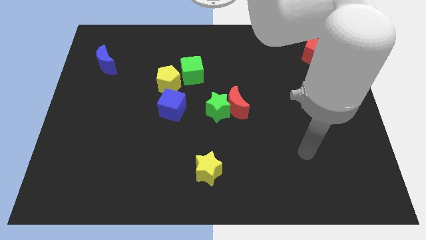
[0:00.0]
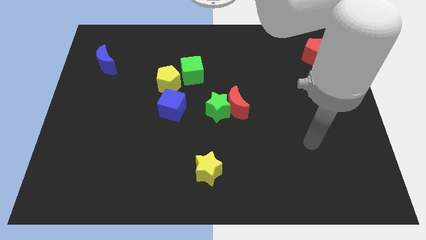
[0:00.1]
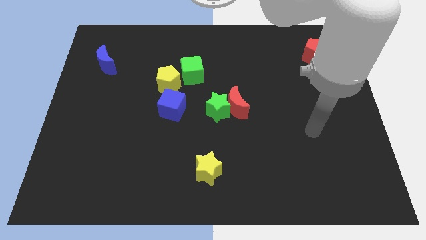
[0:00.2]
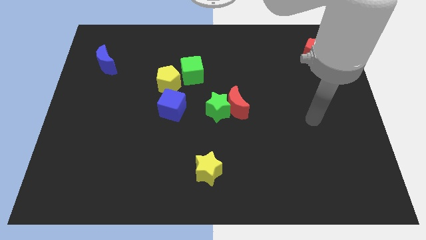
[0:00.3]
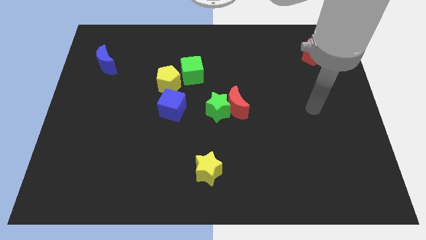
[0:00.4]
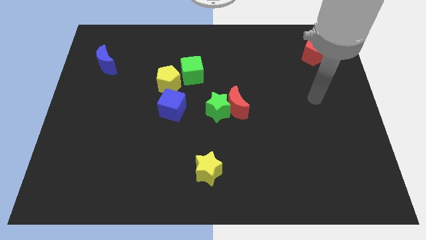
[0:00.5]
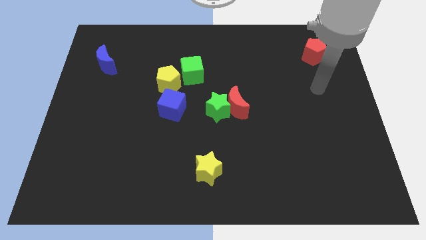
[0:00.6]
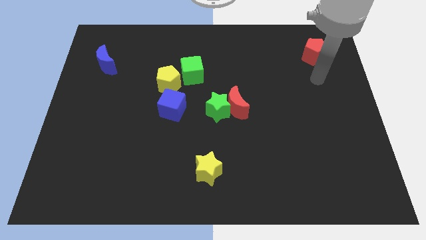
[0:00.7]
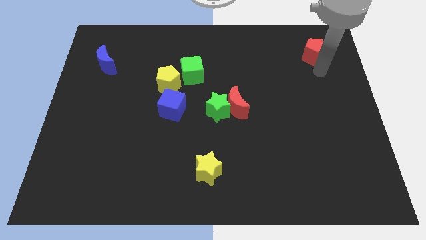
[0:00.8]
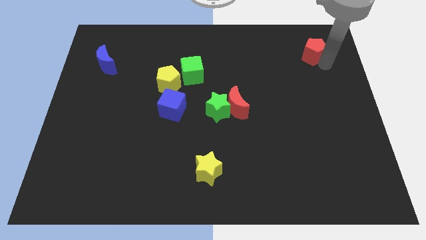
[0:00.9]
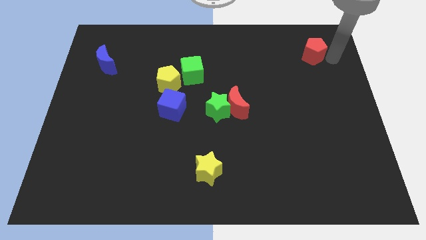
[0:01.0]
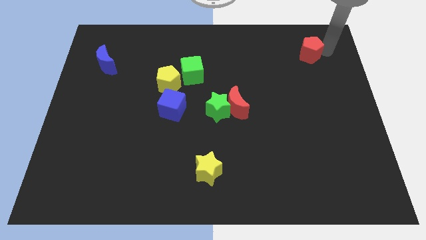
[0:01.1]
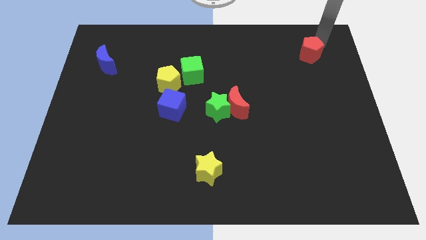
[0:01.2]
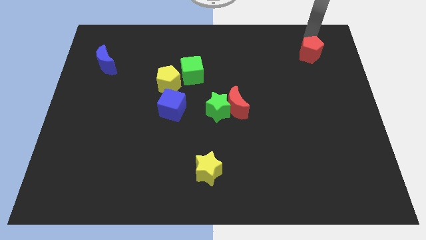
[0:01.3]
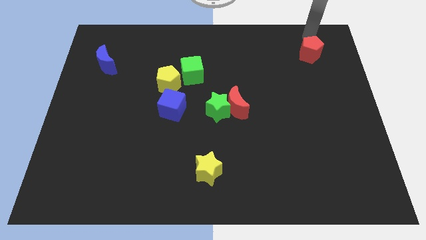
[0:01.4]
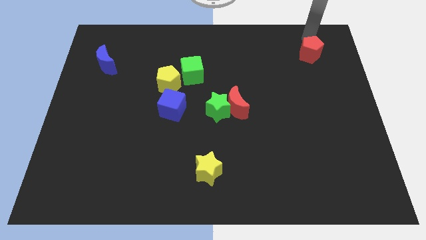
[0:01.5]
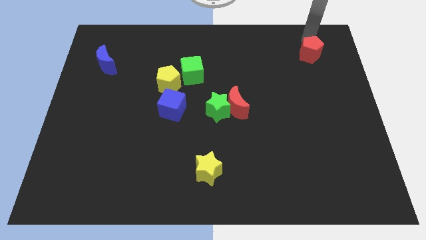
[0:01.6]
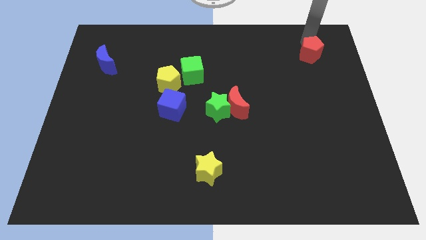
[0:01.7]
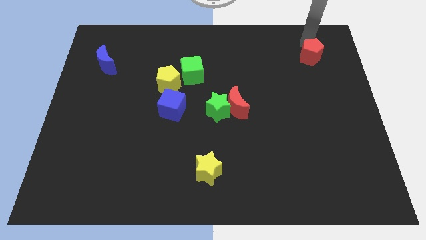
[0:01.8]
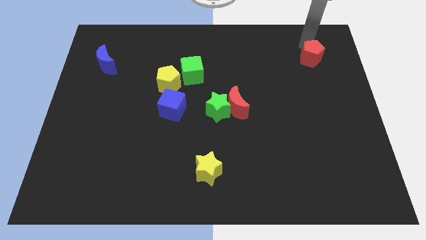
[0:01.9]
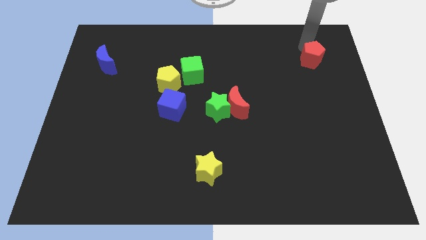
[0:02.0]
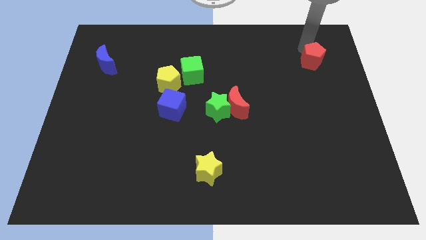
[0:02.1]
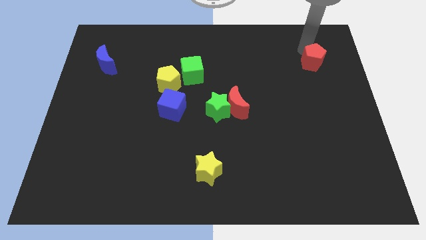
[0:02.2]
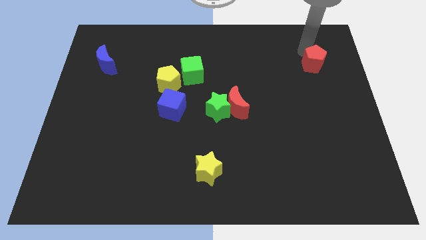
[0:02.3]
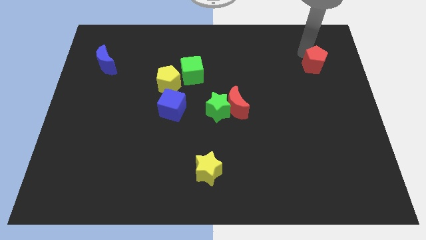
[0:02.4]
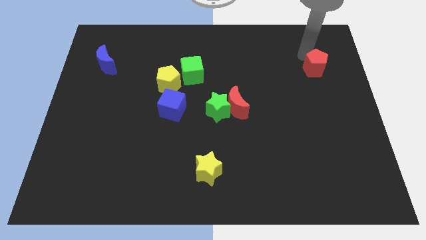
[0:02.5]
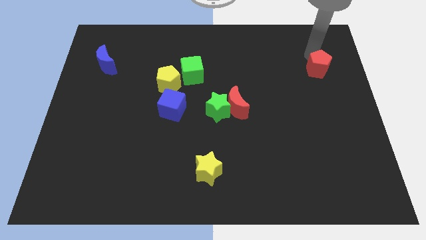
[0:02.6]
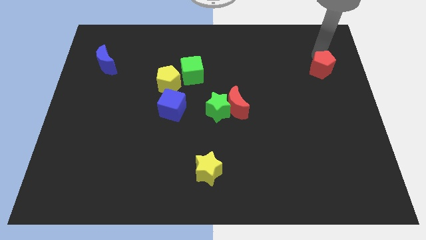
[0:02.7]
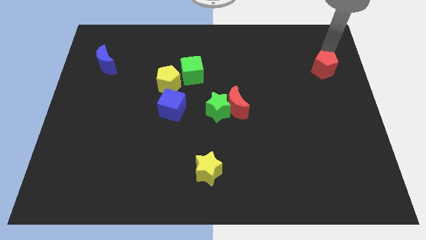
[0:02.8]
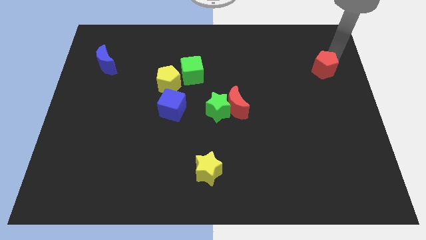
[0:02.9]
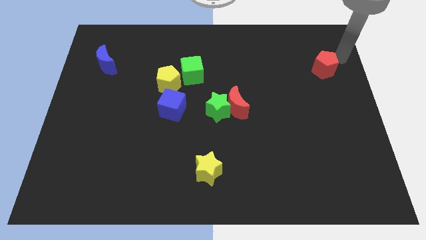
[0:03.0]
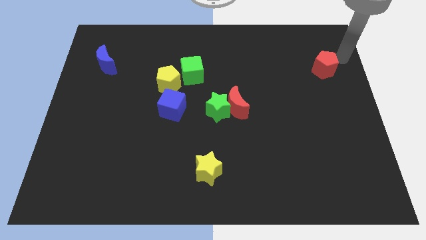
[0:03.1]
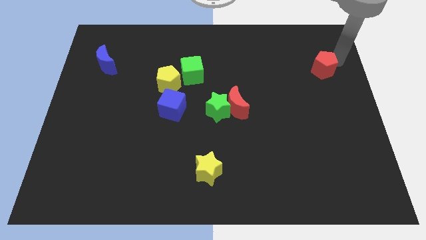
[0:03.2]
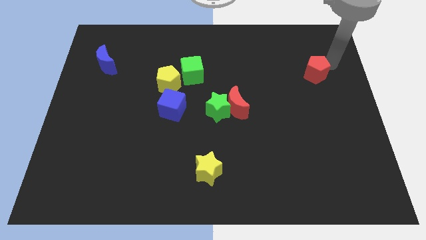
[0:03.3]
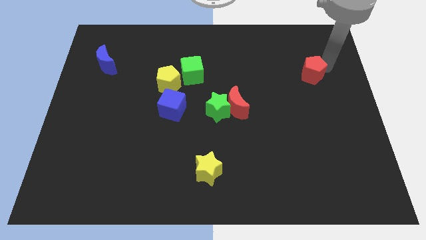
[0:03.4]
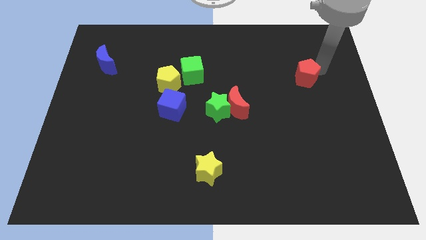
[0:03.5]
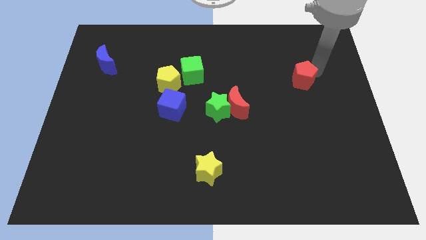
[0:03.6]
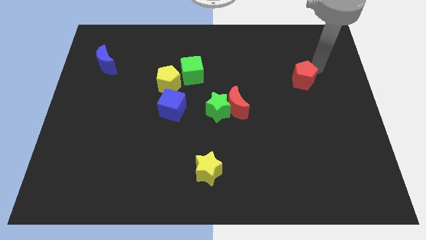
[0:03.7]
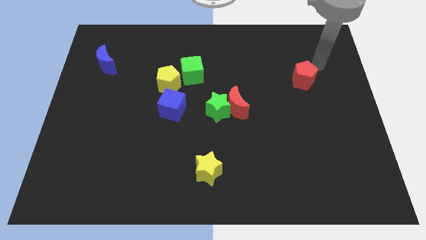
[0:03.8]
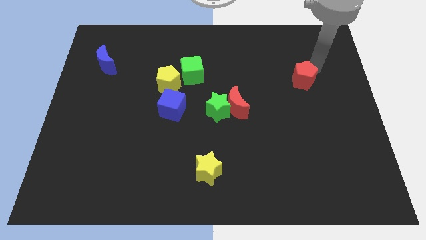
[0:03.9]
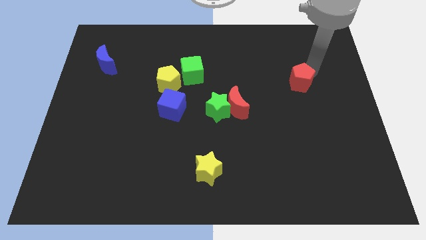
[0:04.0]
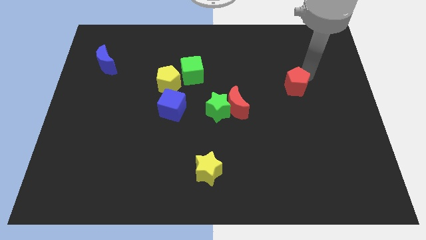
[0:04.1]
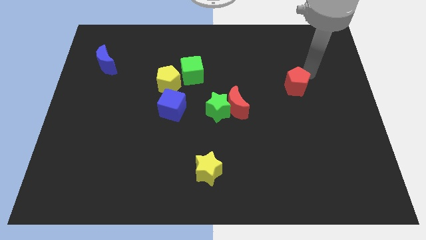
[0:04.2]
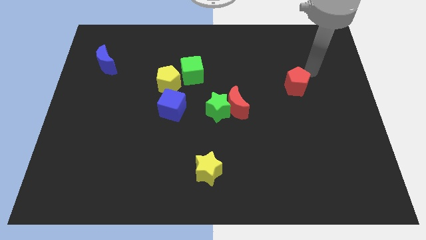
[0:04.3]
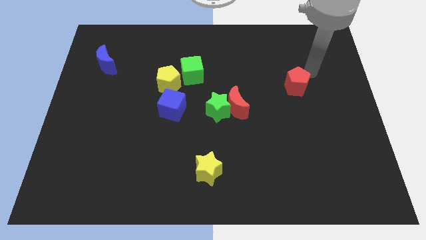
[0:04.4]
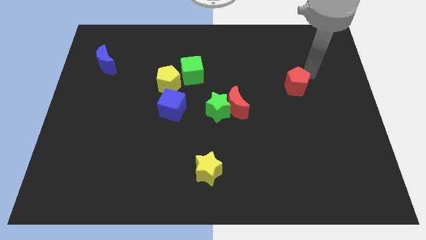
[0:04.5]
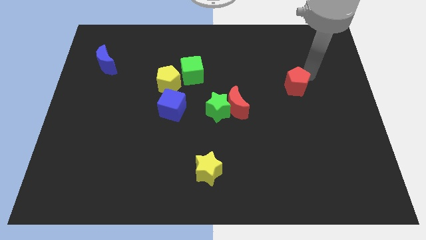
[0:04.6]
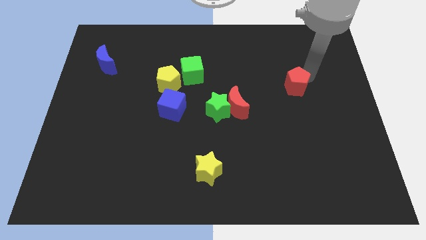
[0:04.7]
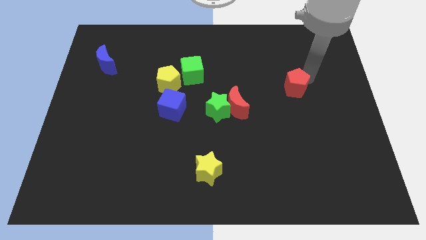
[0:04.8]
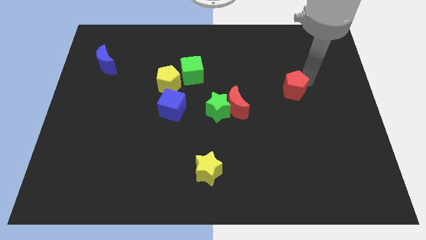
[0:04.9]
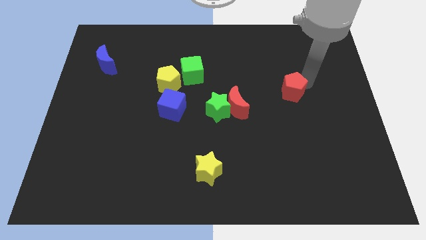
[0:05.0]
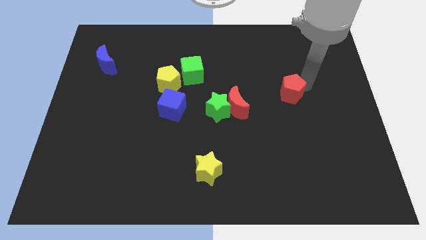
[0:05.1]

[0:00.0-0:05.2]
slide the red pentagon to the right side of the red moon

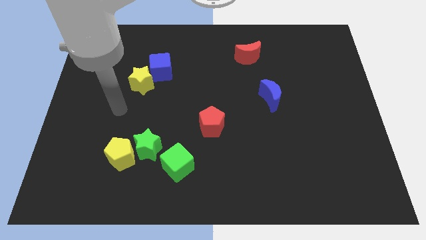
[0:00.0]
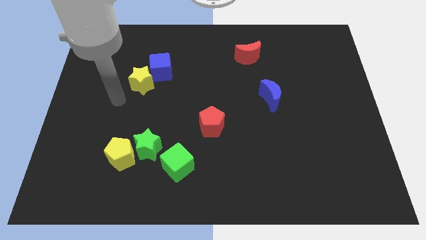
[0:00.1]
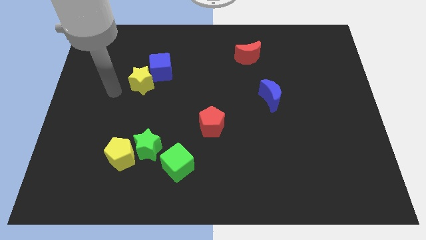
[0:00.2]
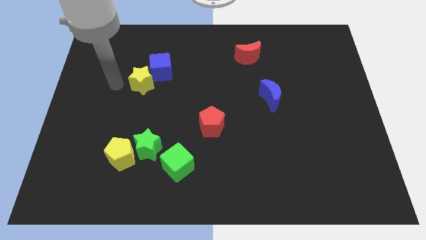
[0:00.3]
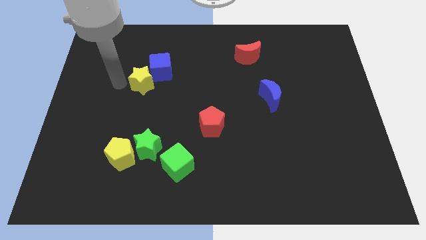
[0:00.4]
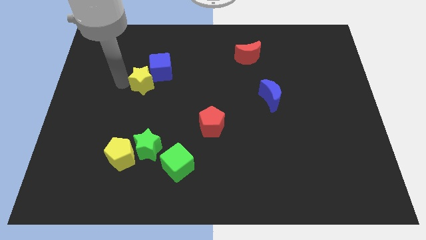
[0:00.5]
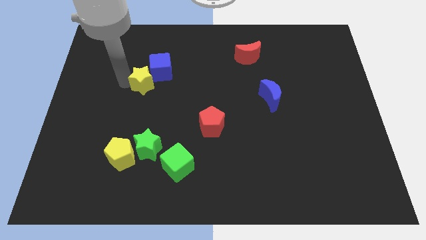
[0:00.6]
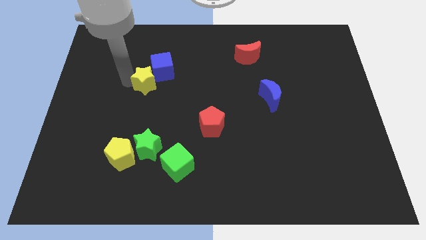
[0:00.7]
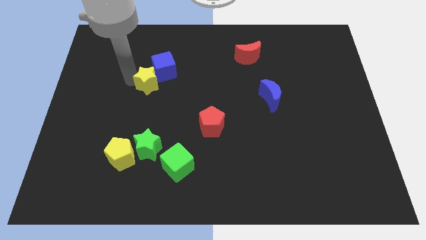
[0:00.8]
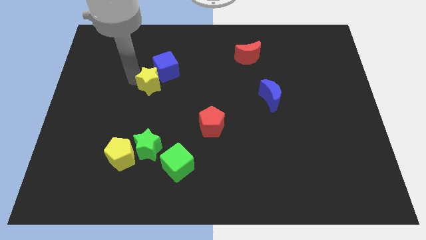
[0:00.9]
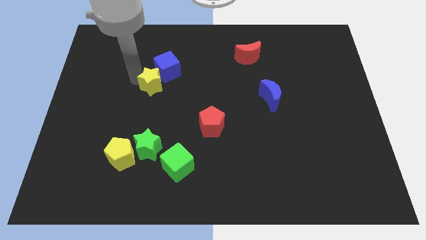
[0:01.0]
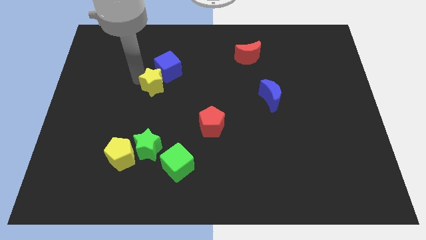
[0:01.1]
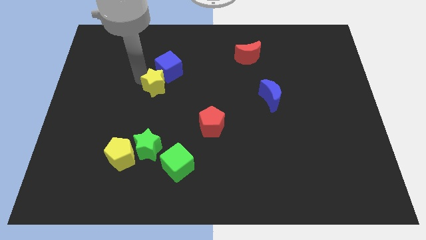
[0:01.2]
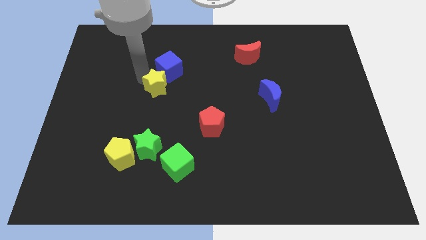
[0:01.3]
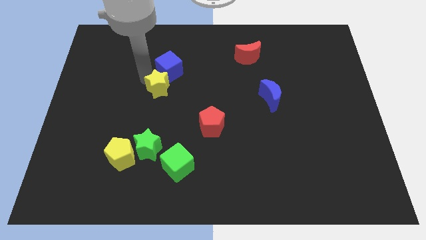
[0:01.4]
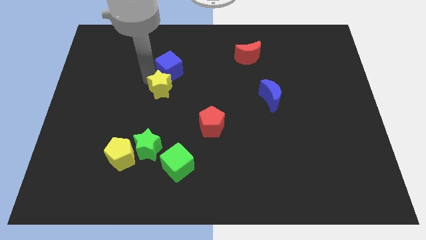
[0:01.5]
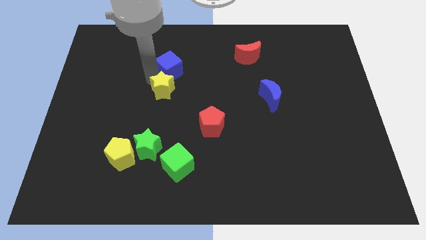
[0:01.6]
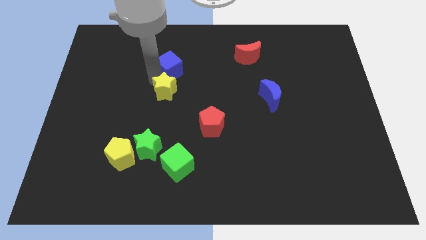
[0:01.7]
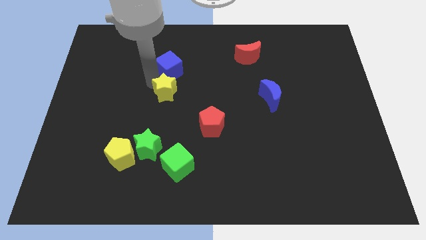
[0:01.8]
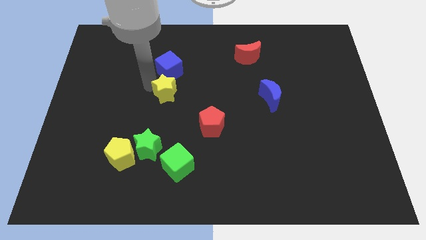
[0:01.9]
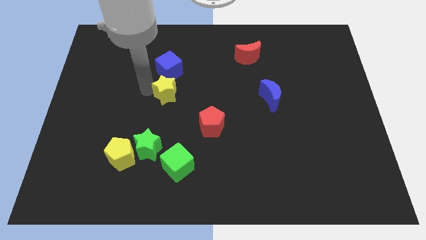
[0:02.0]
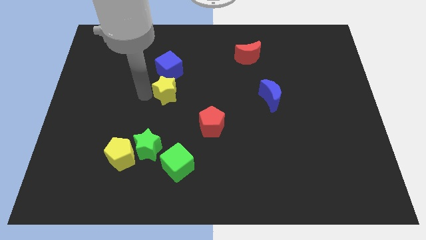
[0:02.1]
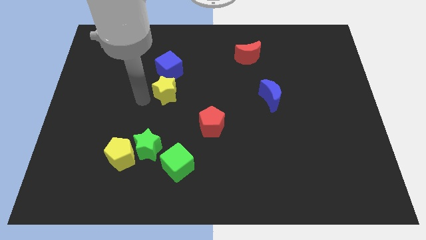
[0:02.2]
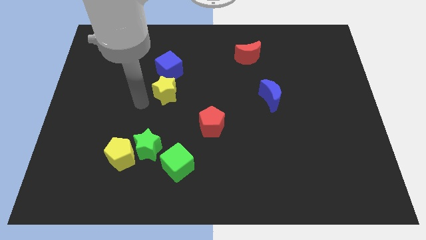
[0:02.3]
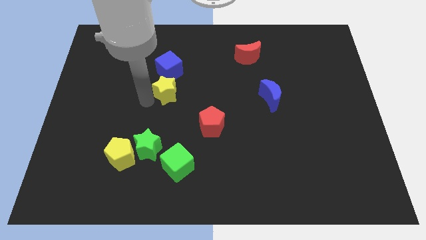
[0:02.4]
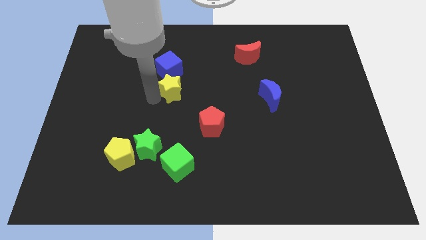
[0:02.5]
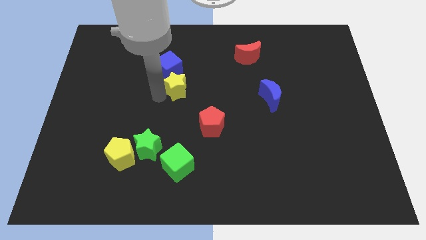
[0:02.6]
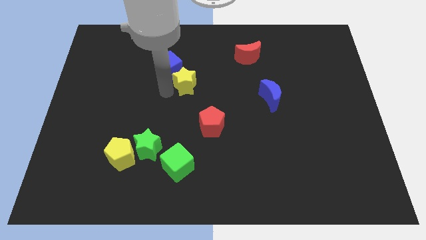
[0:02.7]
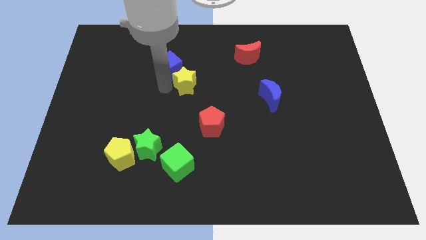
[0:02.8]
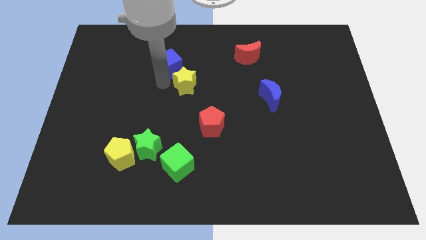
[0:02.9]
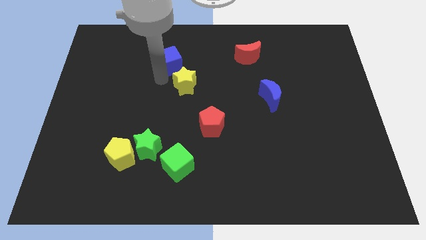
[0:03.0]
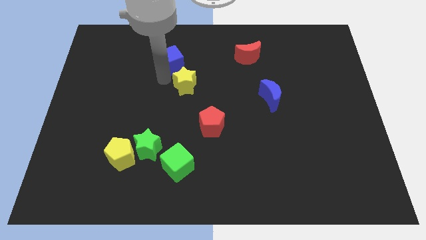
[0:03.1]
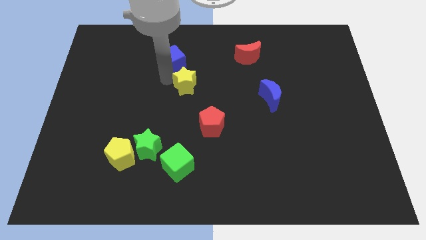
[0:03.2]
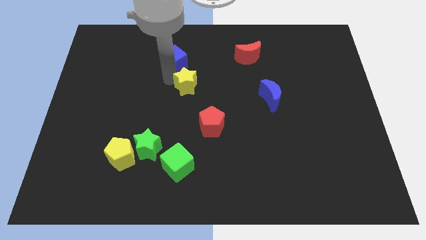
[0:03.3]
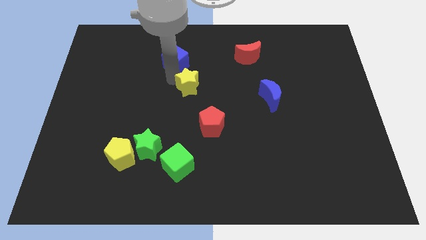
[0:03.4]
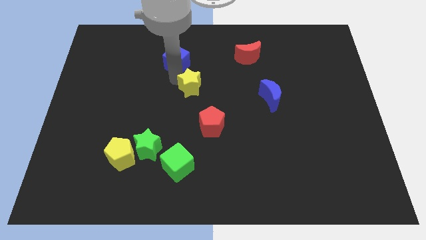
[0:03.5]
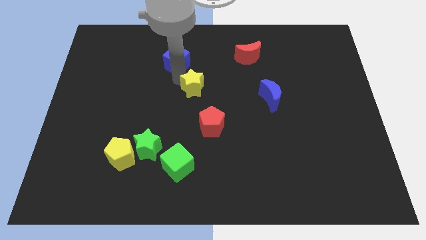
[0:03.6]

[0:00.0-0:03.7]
slide the yellow star to the top of the red pentagon
